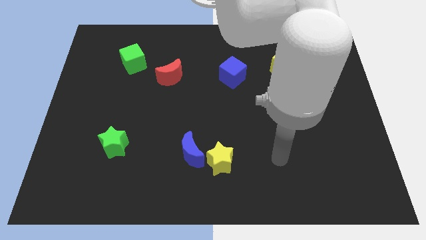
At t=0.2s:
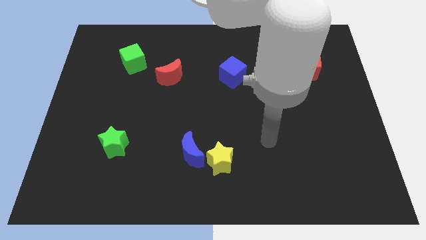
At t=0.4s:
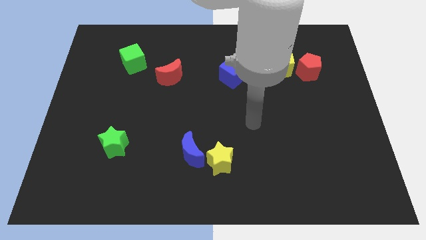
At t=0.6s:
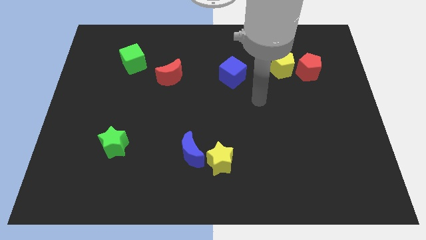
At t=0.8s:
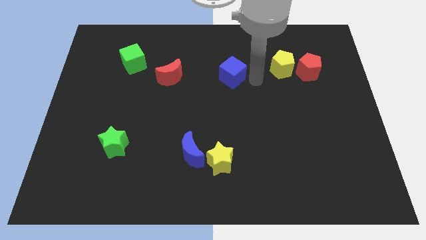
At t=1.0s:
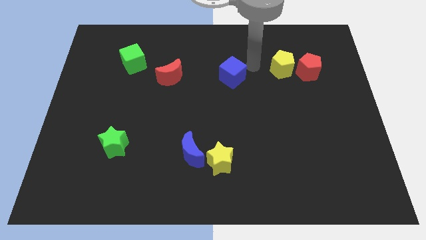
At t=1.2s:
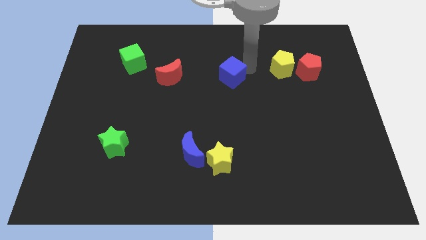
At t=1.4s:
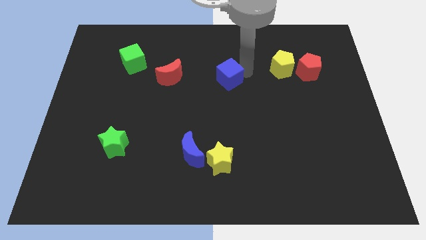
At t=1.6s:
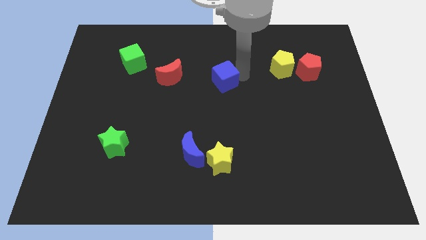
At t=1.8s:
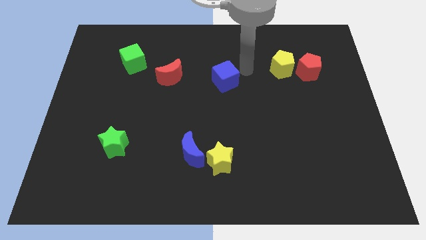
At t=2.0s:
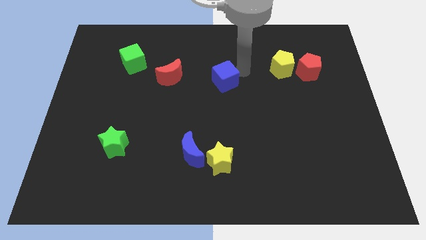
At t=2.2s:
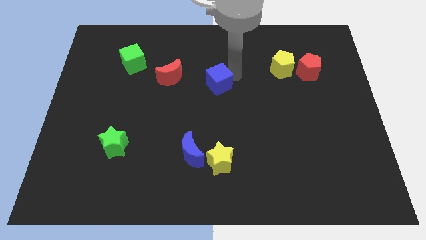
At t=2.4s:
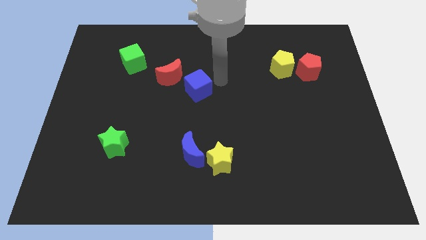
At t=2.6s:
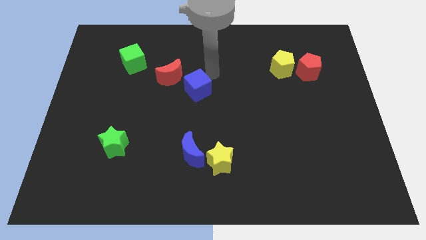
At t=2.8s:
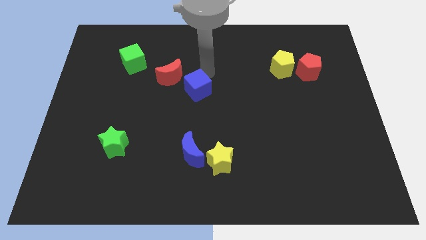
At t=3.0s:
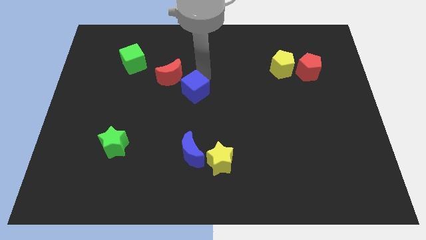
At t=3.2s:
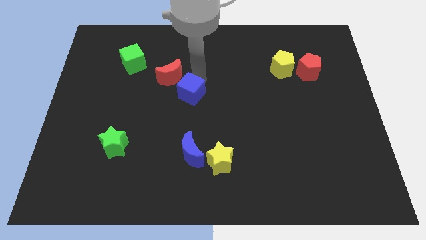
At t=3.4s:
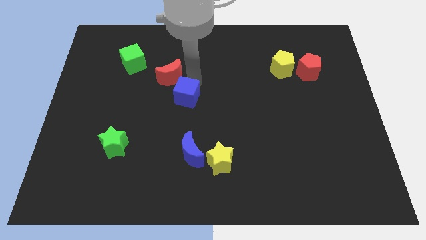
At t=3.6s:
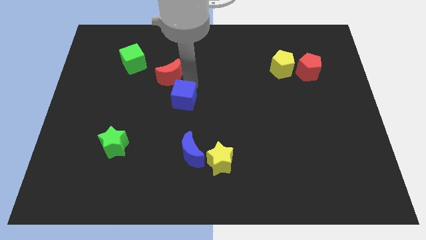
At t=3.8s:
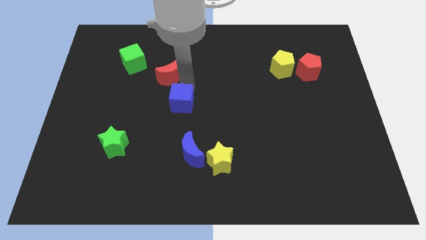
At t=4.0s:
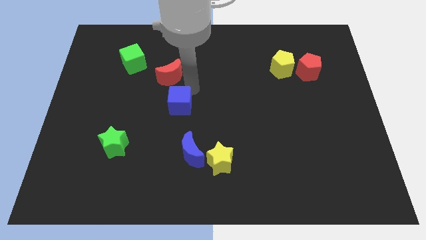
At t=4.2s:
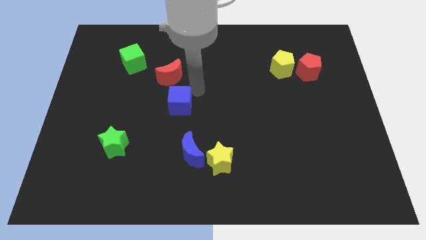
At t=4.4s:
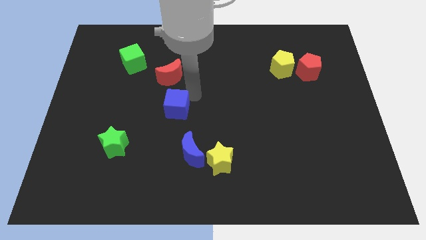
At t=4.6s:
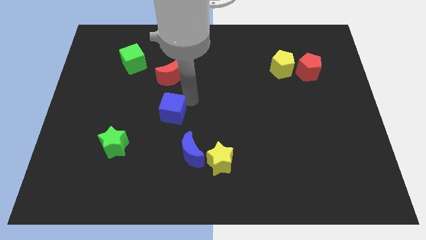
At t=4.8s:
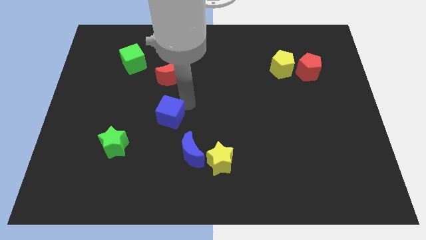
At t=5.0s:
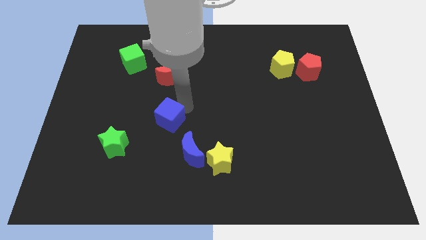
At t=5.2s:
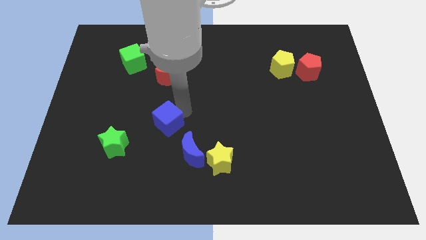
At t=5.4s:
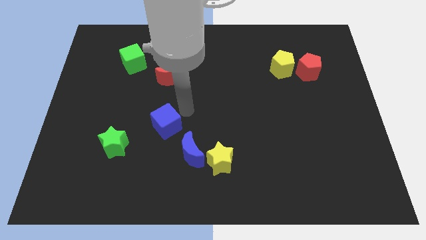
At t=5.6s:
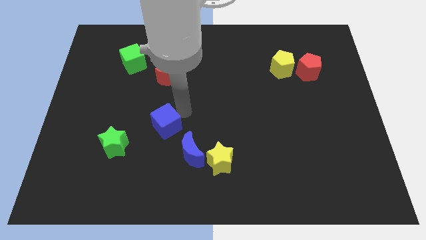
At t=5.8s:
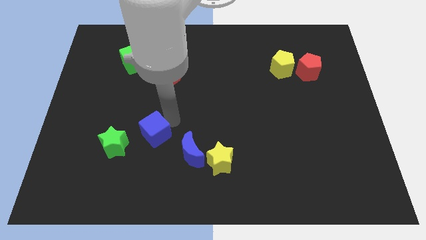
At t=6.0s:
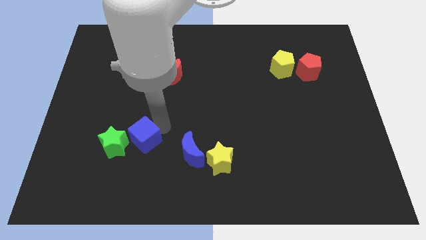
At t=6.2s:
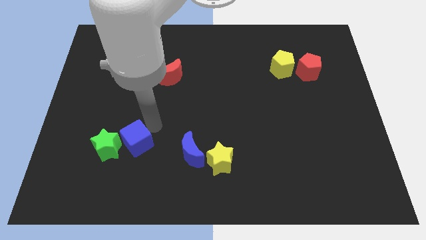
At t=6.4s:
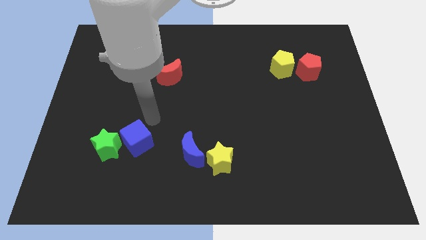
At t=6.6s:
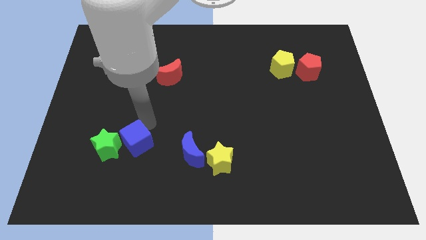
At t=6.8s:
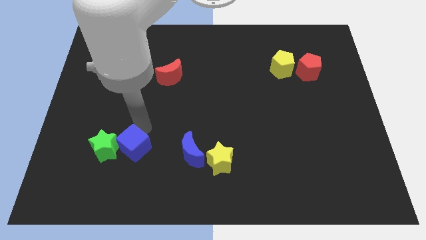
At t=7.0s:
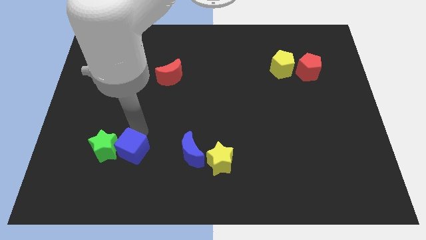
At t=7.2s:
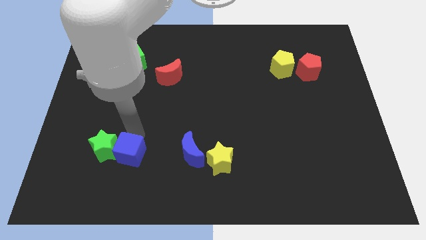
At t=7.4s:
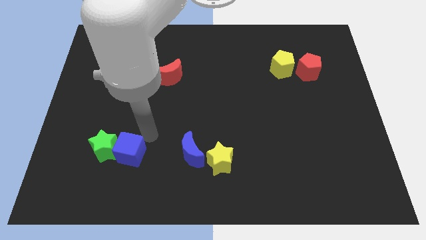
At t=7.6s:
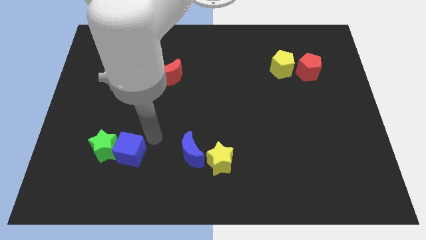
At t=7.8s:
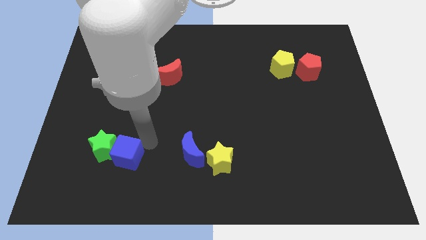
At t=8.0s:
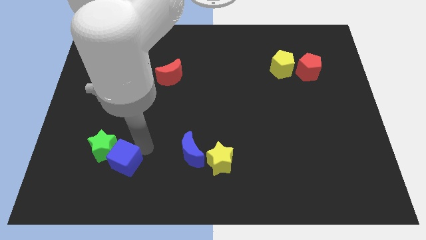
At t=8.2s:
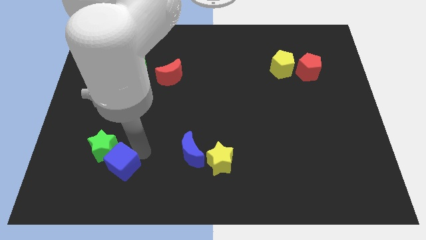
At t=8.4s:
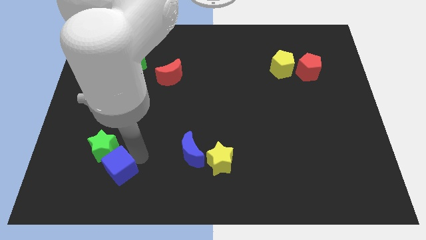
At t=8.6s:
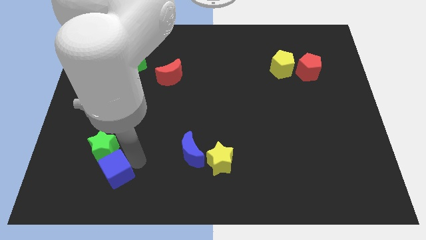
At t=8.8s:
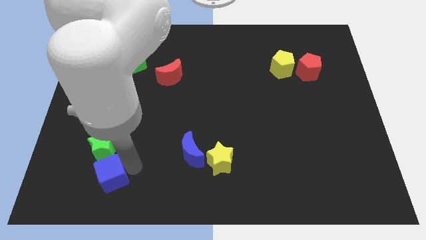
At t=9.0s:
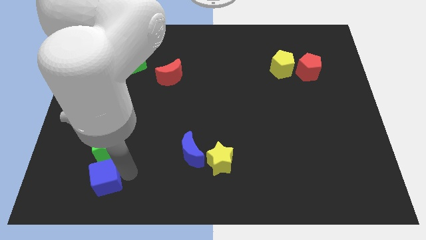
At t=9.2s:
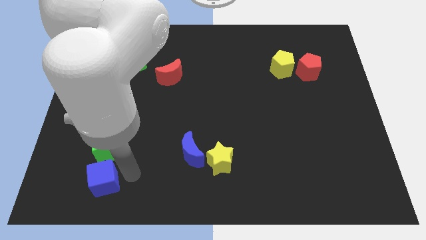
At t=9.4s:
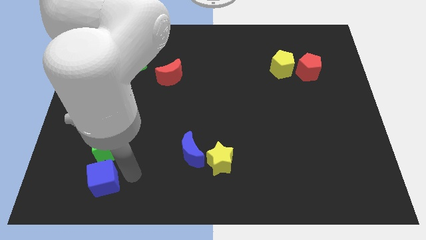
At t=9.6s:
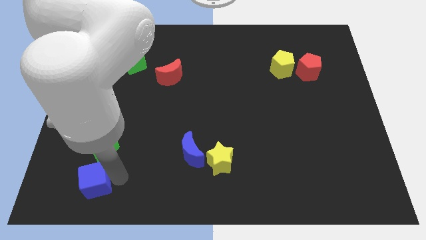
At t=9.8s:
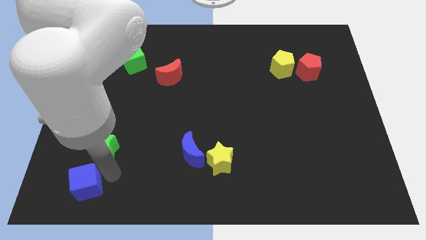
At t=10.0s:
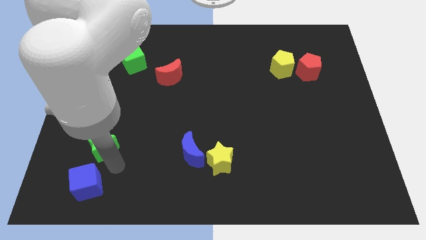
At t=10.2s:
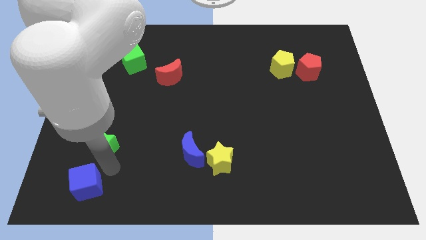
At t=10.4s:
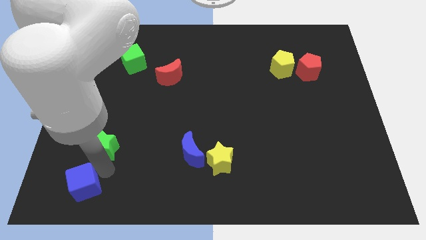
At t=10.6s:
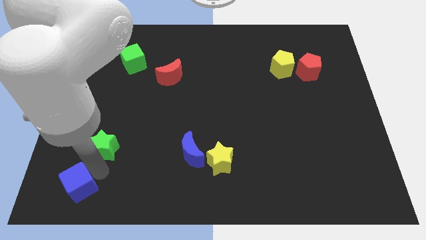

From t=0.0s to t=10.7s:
slide the blue cube to the bottom left of the board

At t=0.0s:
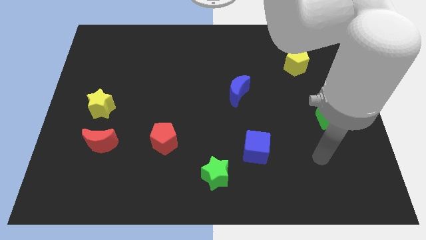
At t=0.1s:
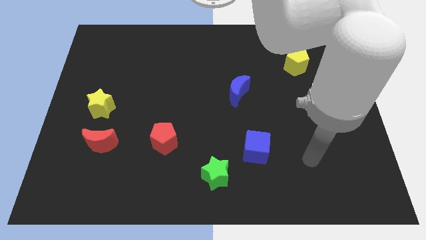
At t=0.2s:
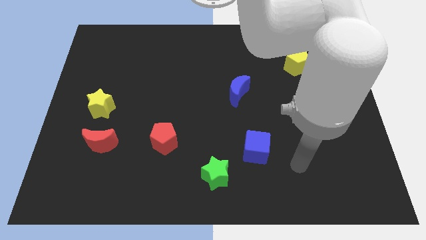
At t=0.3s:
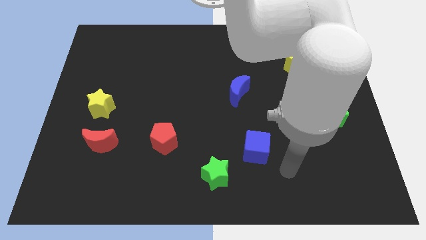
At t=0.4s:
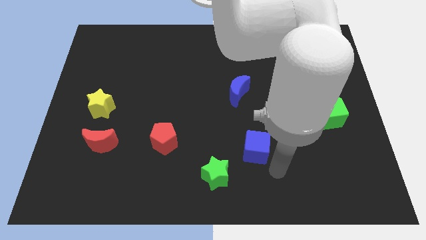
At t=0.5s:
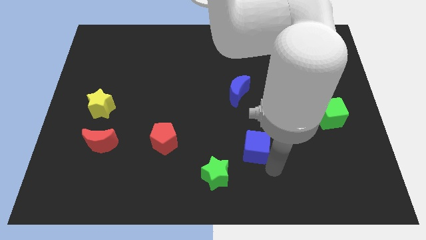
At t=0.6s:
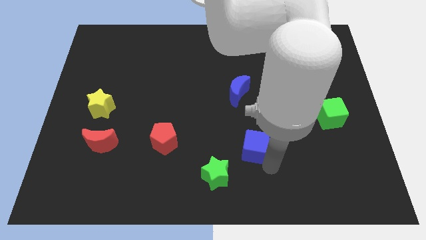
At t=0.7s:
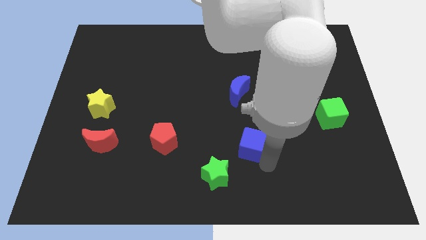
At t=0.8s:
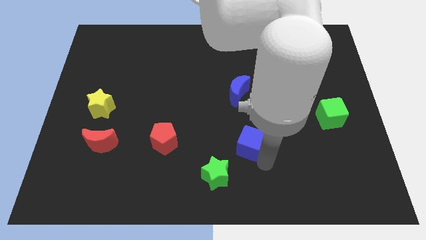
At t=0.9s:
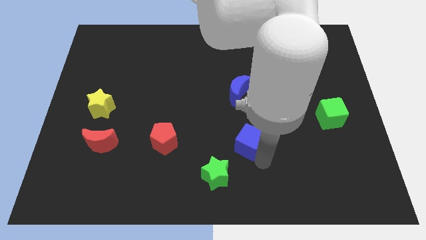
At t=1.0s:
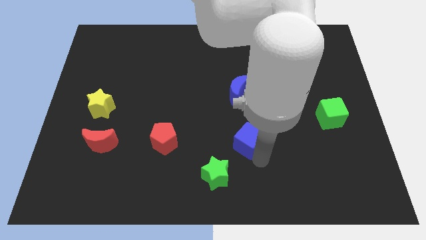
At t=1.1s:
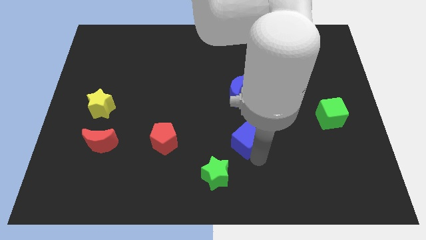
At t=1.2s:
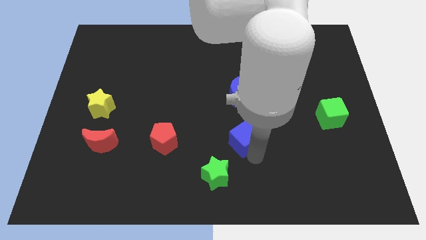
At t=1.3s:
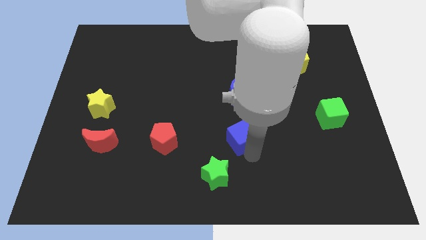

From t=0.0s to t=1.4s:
push the blue cube to the middle of the board

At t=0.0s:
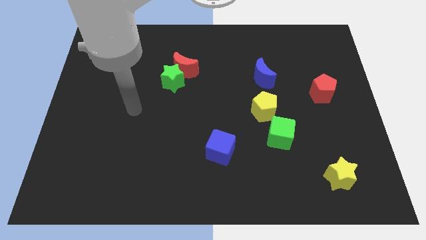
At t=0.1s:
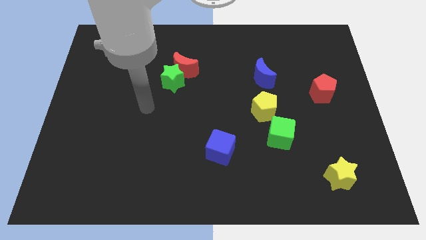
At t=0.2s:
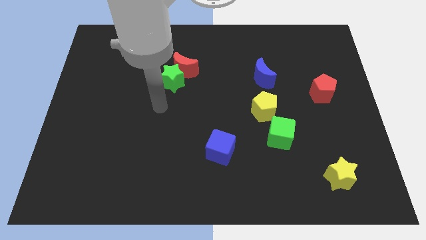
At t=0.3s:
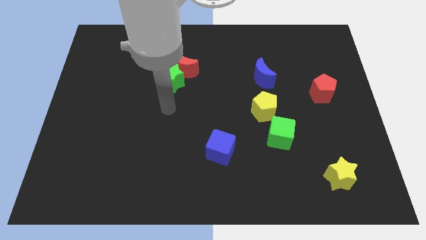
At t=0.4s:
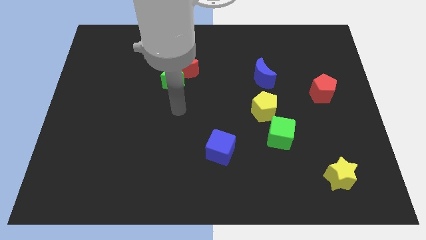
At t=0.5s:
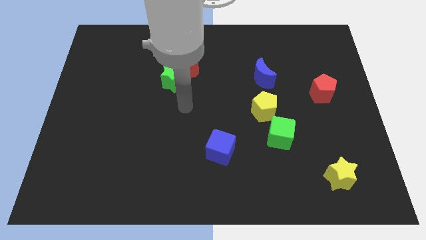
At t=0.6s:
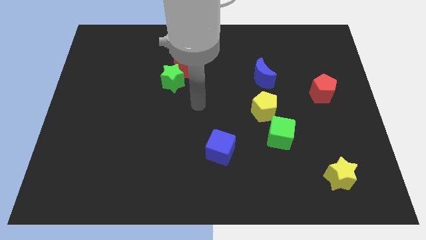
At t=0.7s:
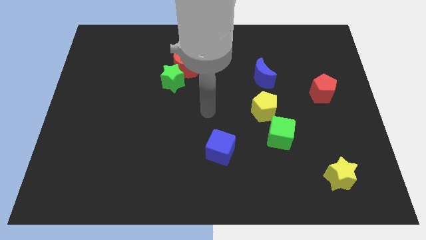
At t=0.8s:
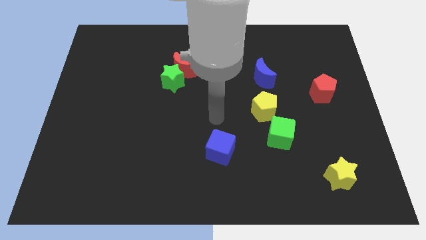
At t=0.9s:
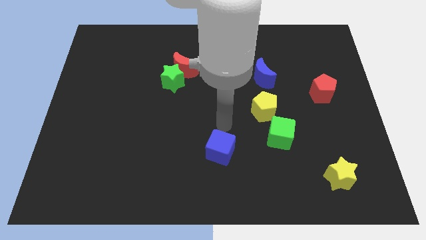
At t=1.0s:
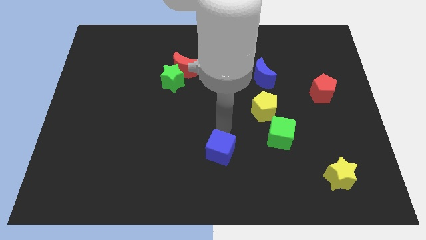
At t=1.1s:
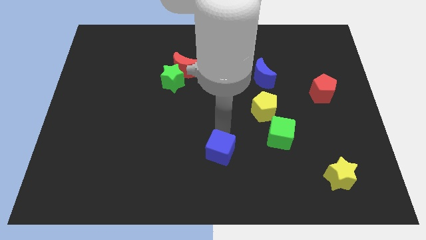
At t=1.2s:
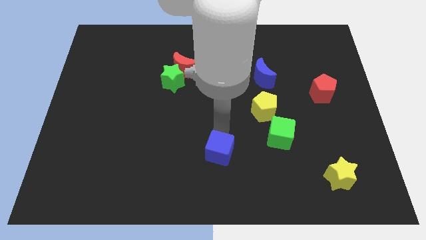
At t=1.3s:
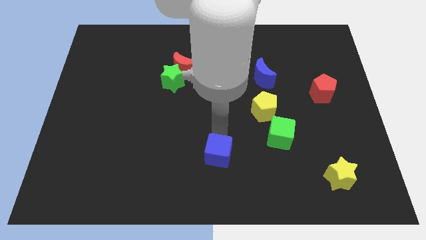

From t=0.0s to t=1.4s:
push the blue cube to the bottom
